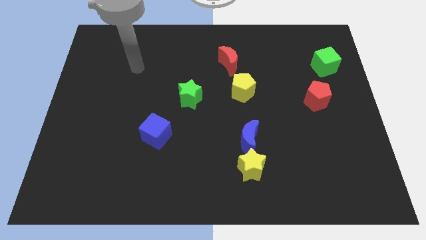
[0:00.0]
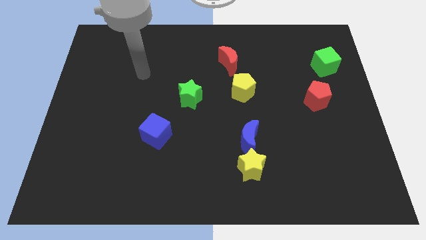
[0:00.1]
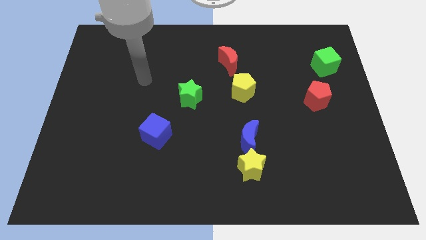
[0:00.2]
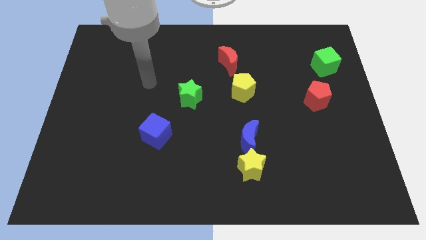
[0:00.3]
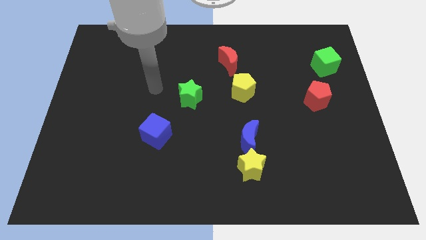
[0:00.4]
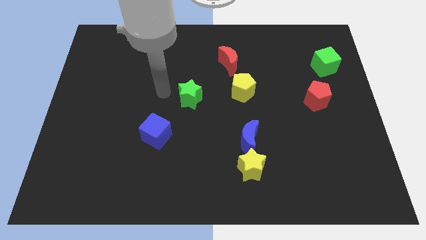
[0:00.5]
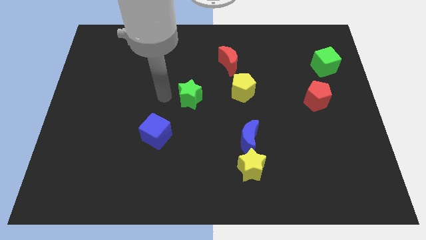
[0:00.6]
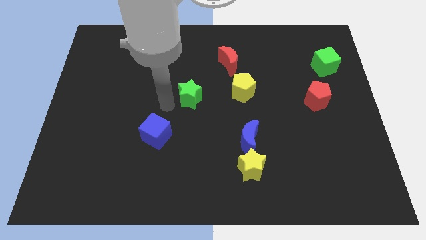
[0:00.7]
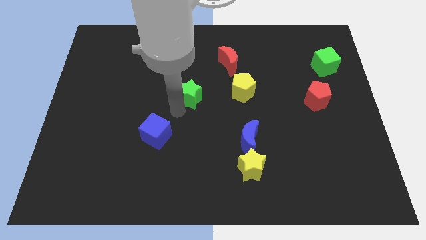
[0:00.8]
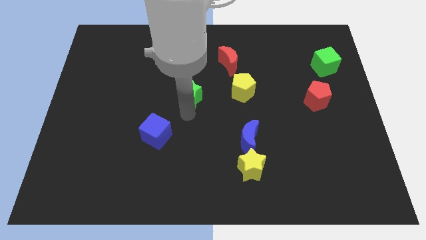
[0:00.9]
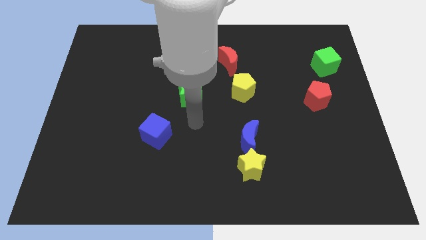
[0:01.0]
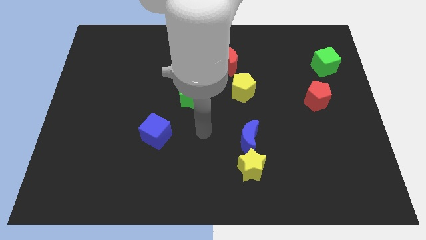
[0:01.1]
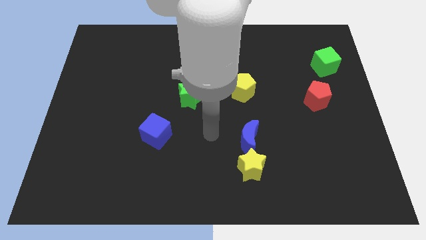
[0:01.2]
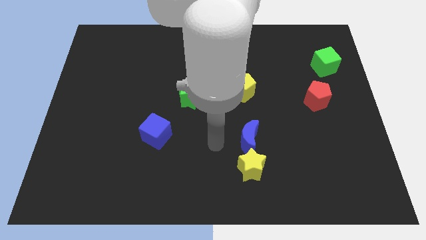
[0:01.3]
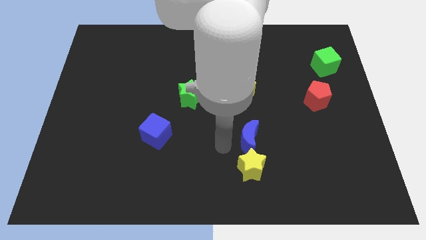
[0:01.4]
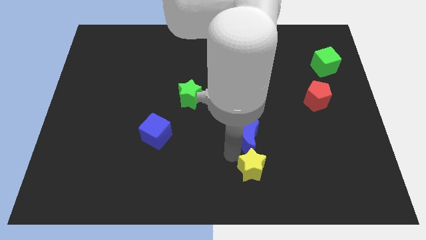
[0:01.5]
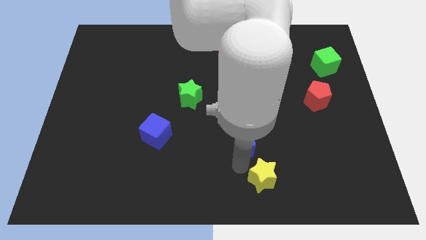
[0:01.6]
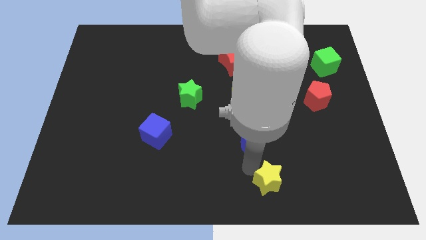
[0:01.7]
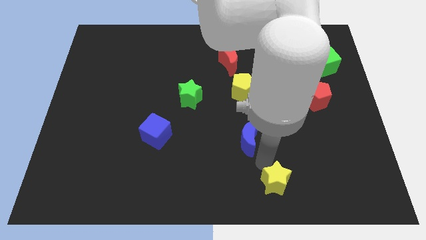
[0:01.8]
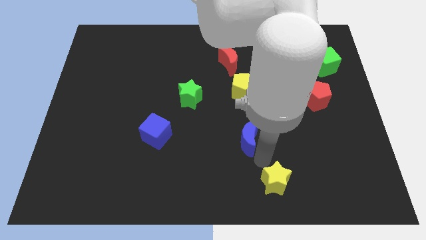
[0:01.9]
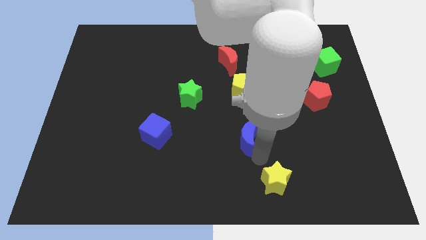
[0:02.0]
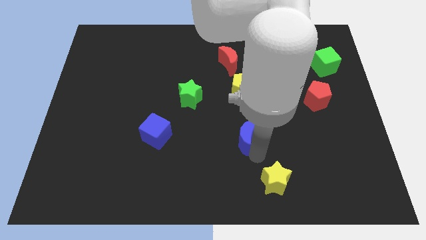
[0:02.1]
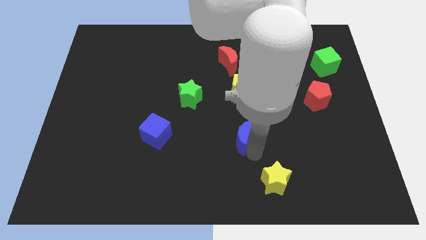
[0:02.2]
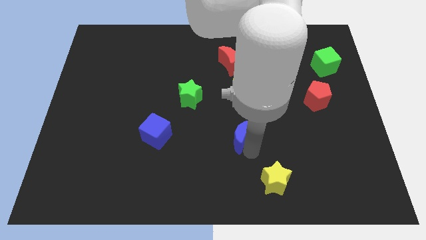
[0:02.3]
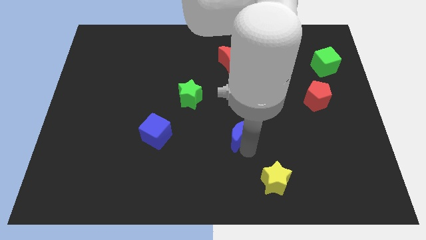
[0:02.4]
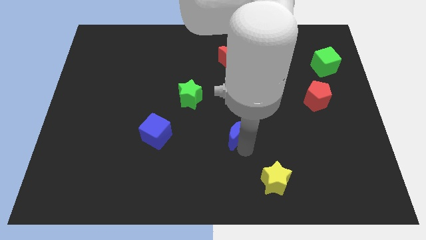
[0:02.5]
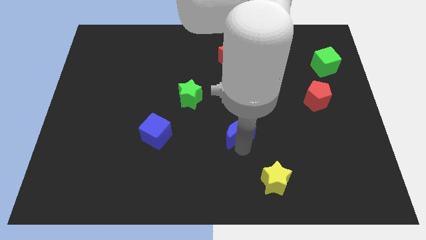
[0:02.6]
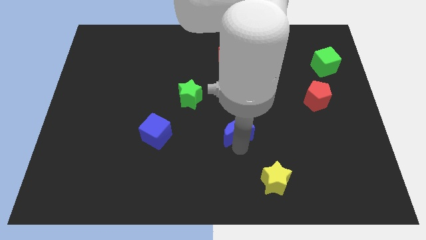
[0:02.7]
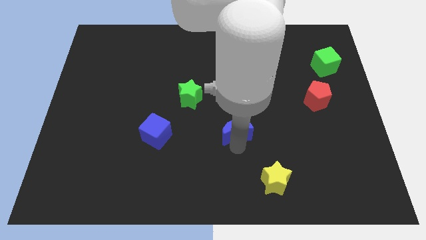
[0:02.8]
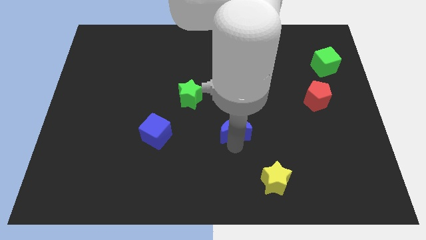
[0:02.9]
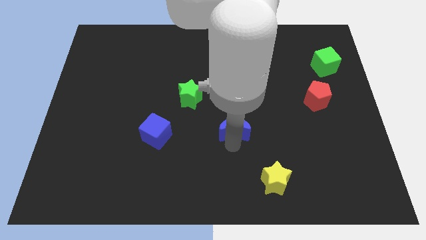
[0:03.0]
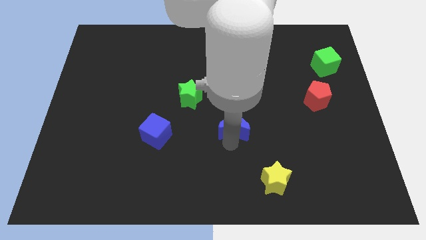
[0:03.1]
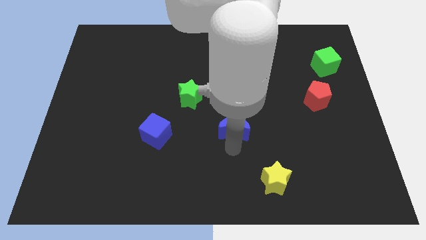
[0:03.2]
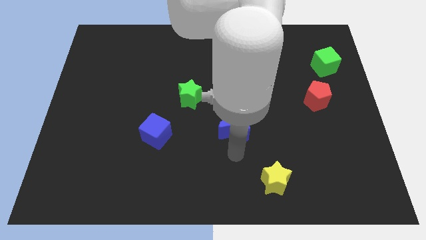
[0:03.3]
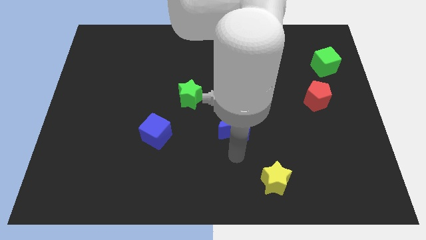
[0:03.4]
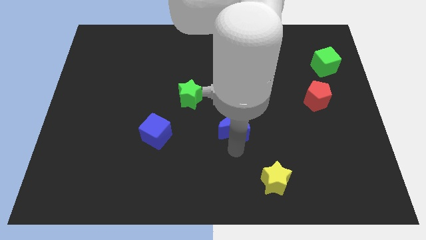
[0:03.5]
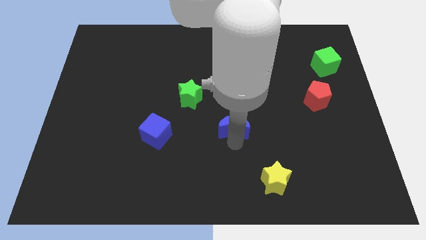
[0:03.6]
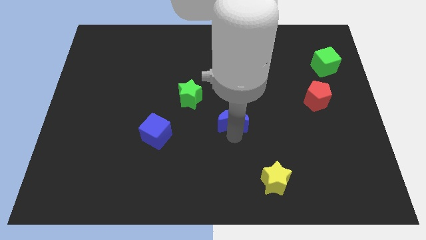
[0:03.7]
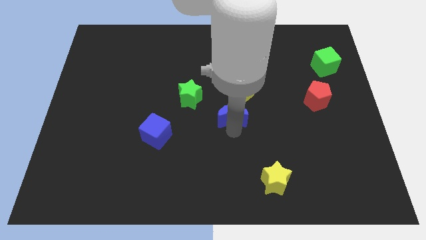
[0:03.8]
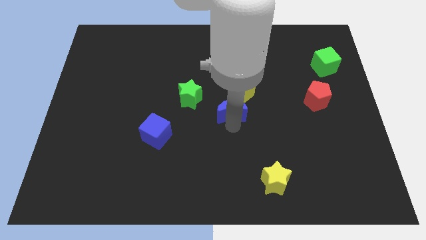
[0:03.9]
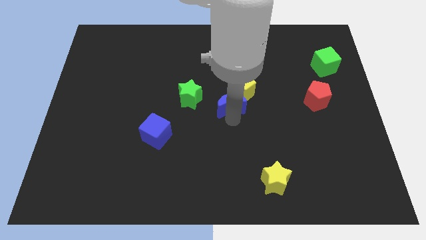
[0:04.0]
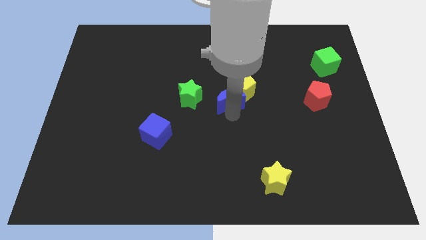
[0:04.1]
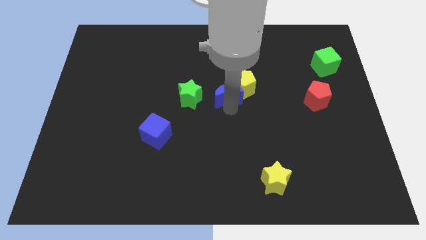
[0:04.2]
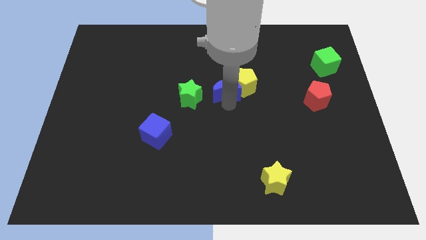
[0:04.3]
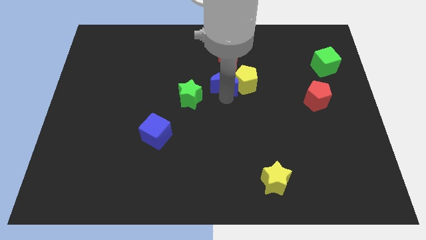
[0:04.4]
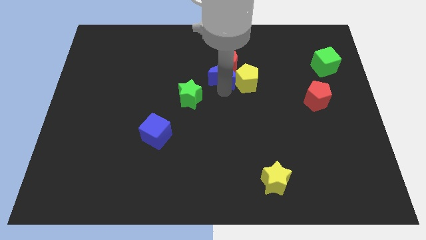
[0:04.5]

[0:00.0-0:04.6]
push the blue moon close to the red moon

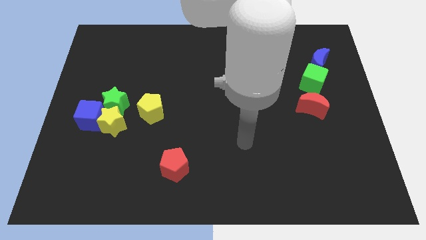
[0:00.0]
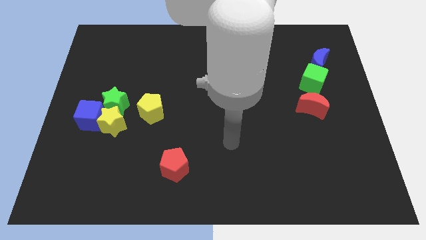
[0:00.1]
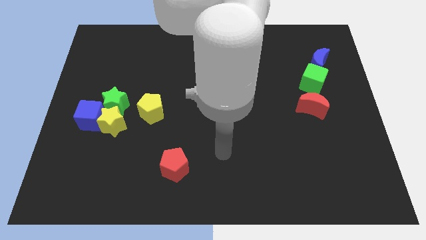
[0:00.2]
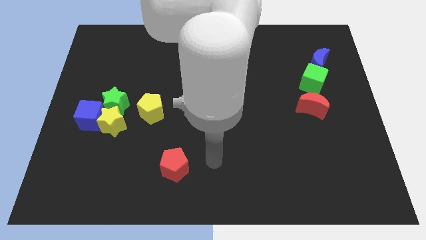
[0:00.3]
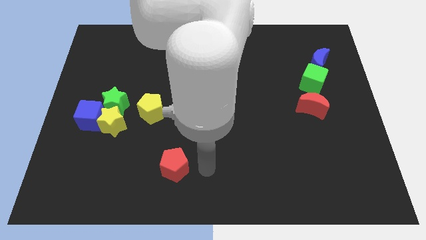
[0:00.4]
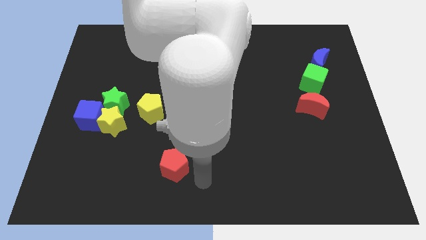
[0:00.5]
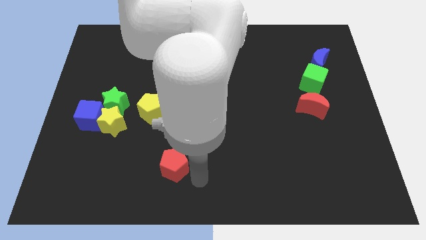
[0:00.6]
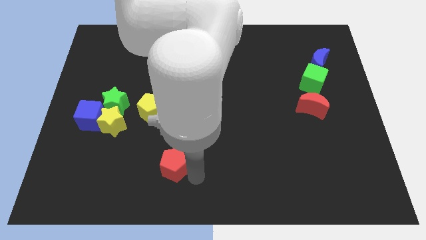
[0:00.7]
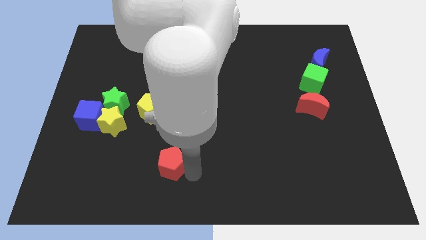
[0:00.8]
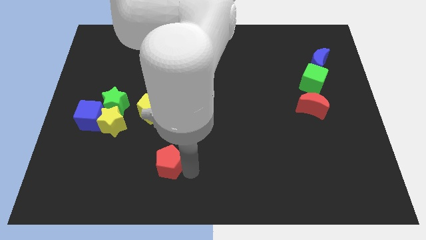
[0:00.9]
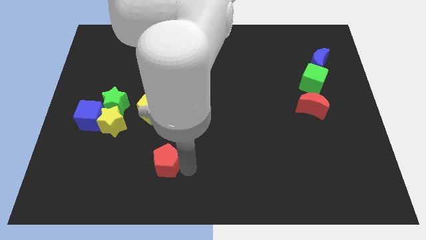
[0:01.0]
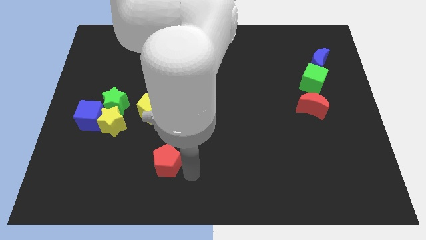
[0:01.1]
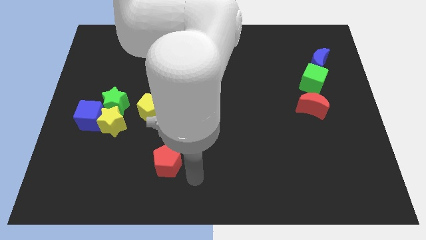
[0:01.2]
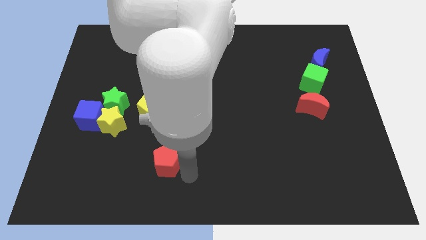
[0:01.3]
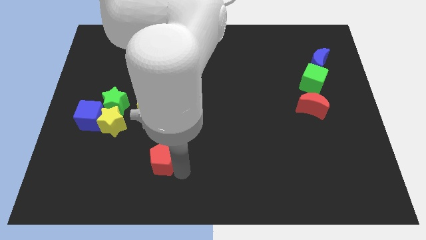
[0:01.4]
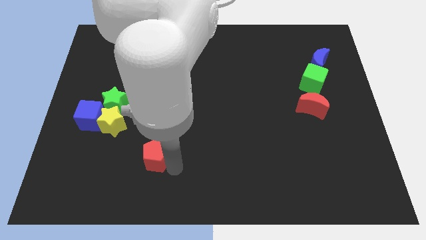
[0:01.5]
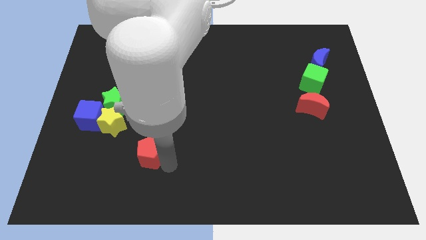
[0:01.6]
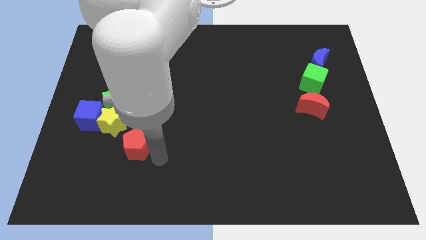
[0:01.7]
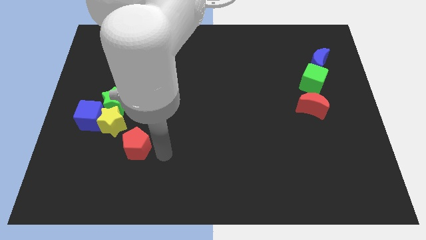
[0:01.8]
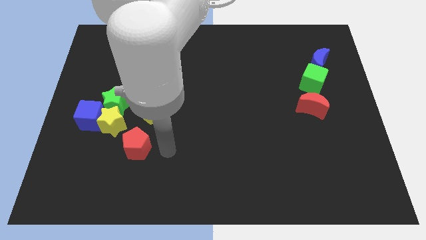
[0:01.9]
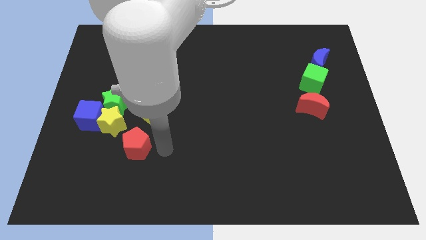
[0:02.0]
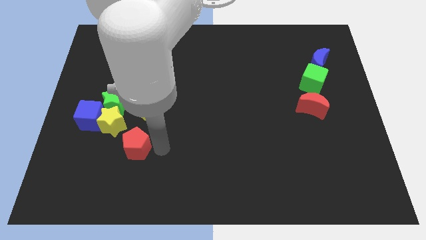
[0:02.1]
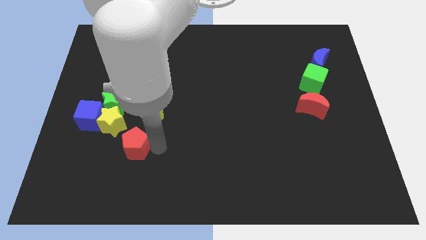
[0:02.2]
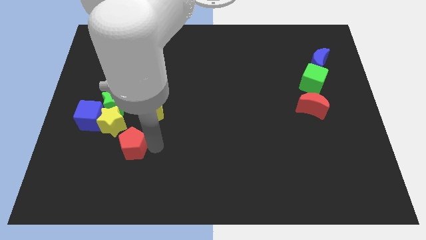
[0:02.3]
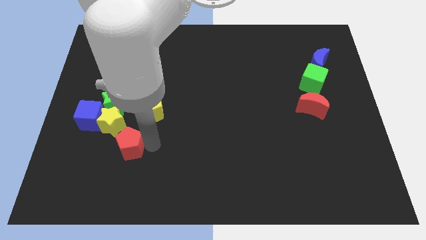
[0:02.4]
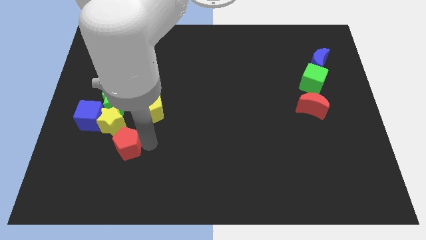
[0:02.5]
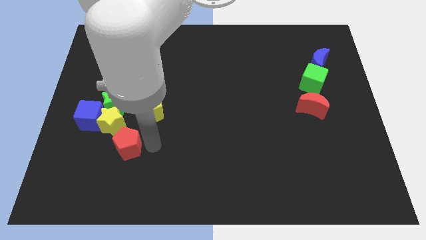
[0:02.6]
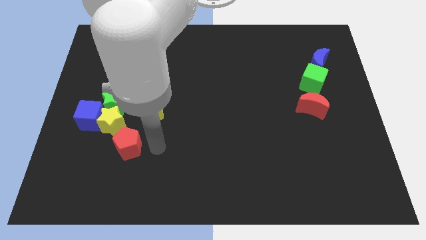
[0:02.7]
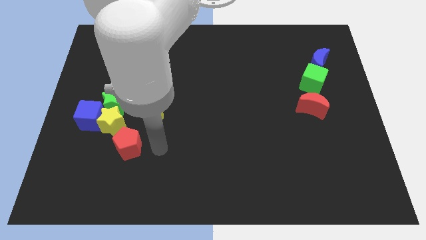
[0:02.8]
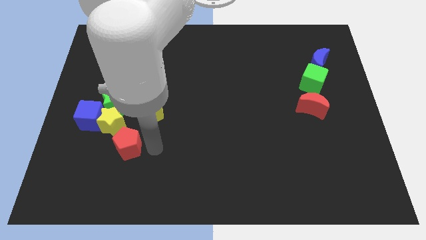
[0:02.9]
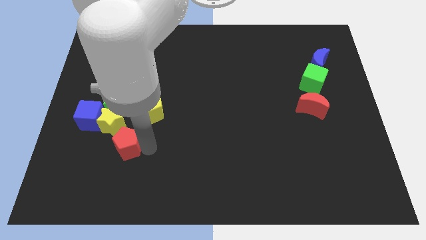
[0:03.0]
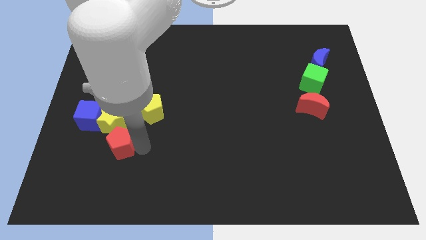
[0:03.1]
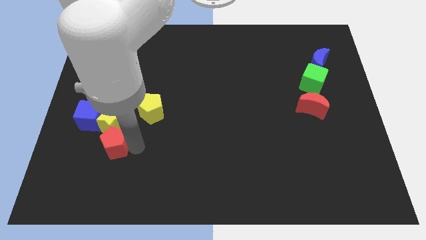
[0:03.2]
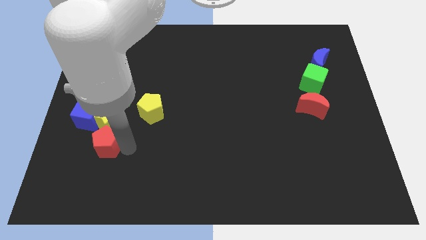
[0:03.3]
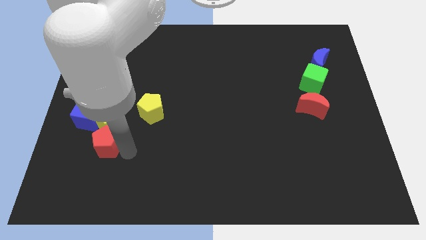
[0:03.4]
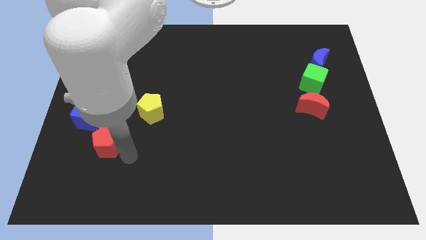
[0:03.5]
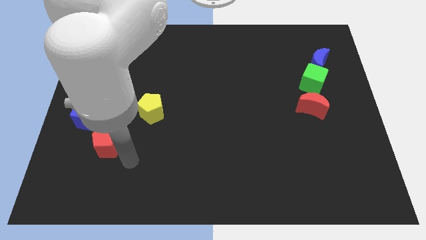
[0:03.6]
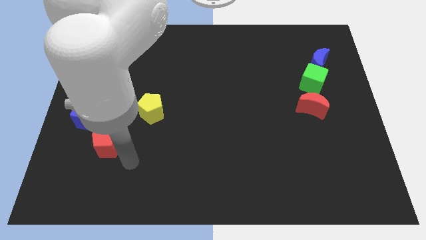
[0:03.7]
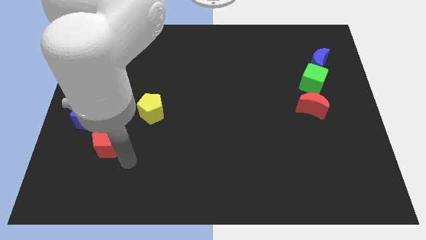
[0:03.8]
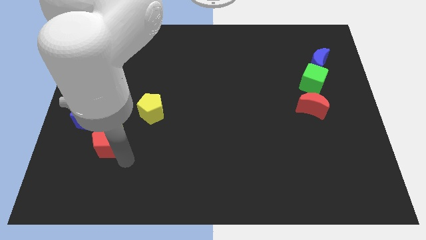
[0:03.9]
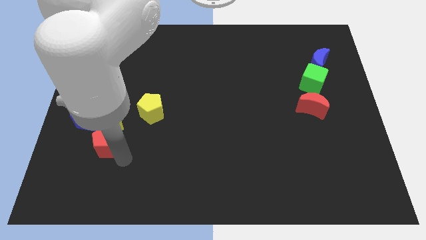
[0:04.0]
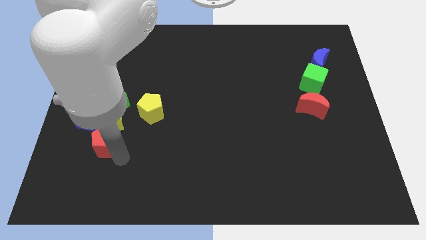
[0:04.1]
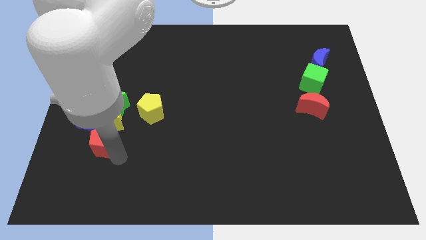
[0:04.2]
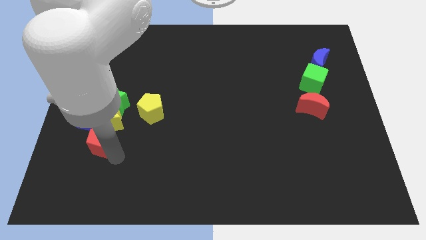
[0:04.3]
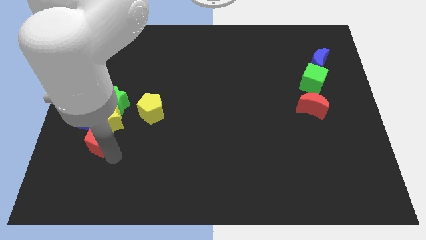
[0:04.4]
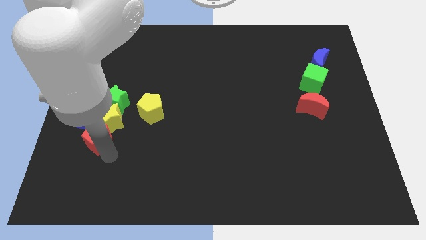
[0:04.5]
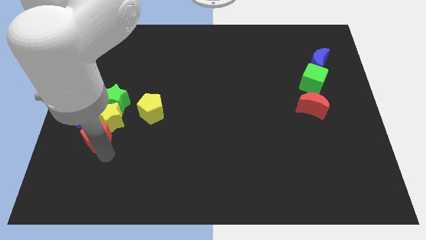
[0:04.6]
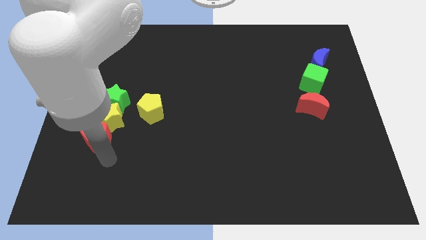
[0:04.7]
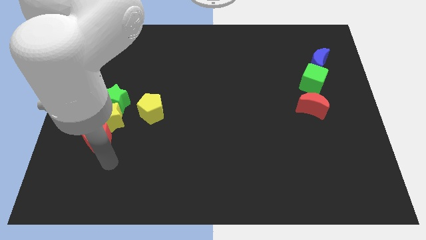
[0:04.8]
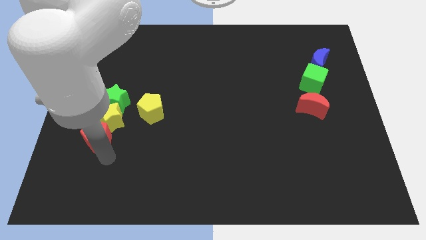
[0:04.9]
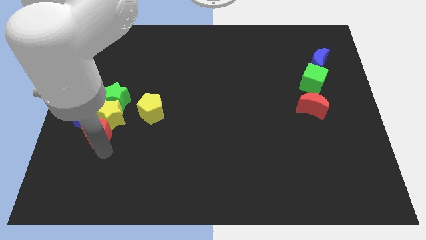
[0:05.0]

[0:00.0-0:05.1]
push the red pentagon close to the blue cube
